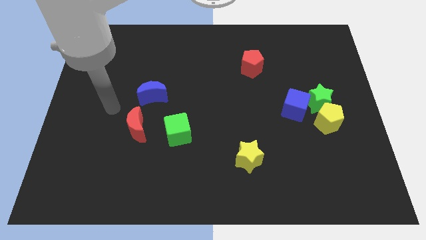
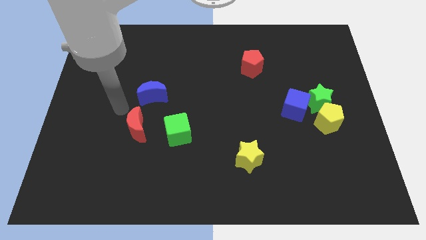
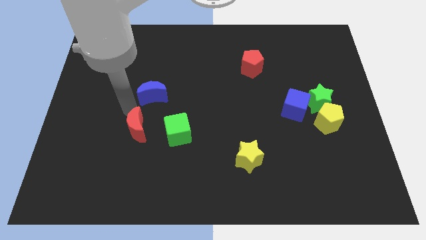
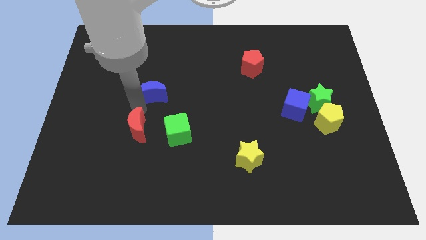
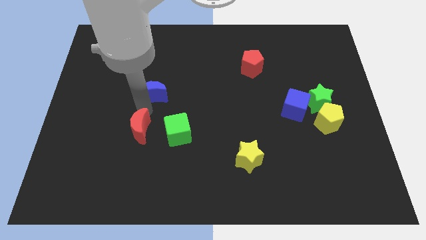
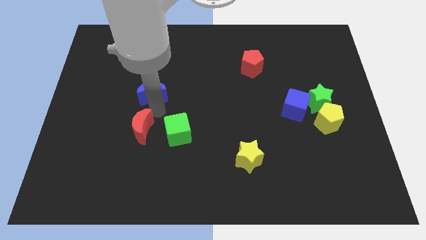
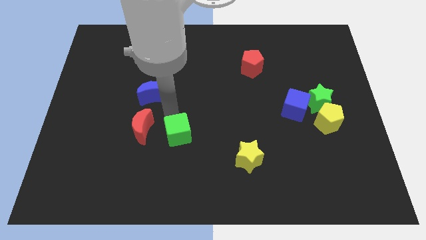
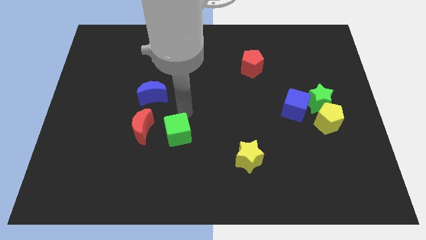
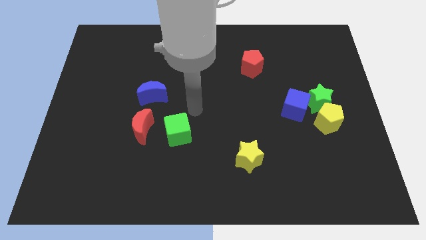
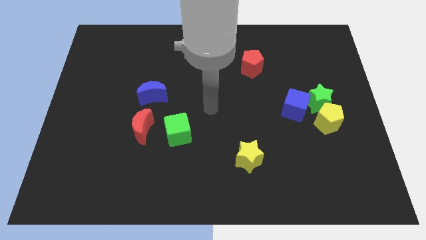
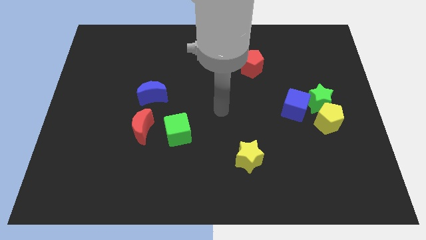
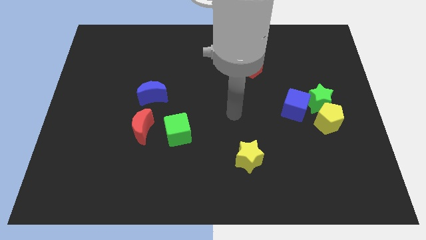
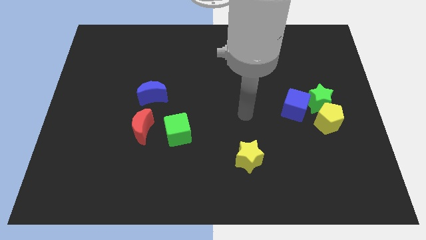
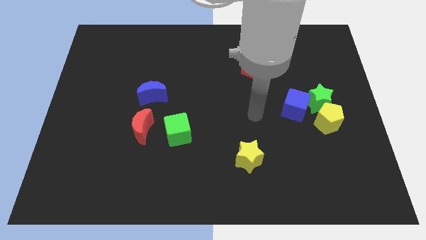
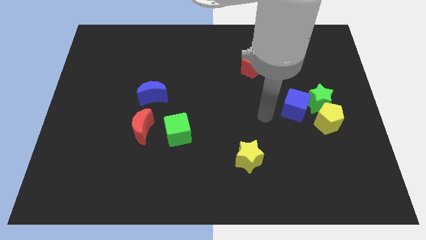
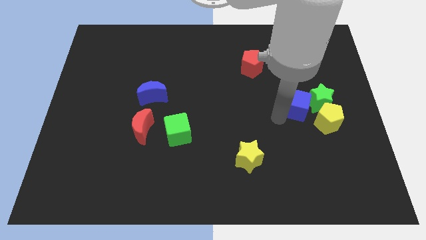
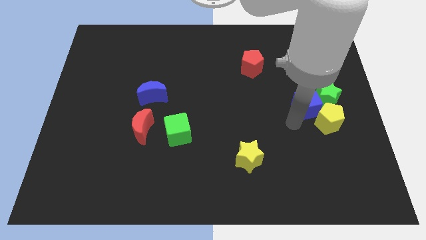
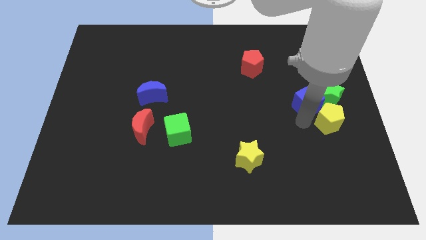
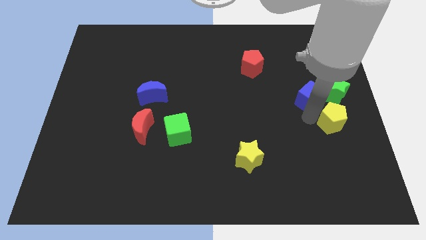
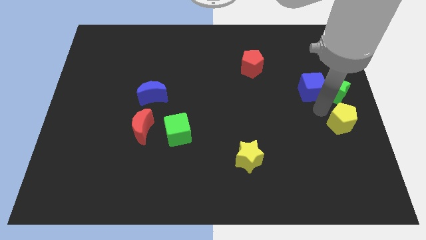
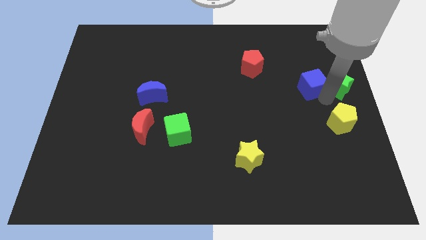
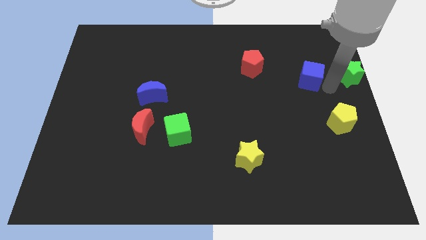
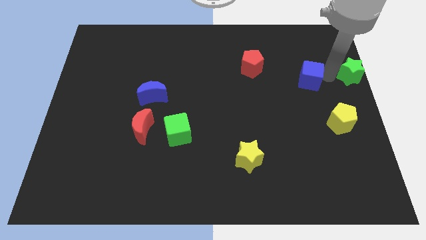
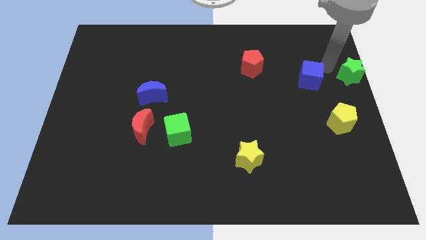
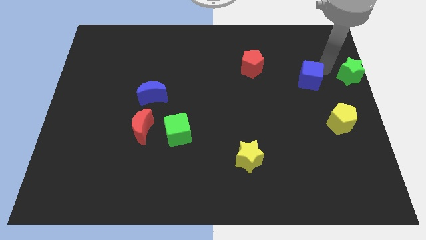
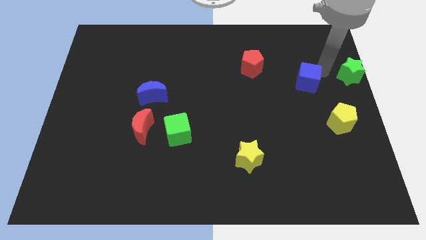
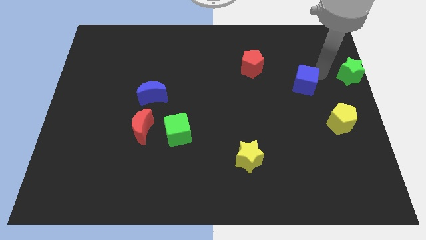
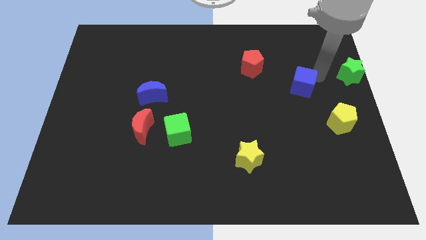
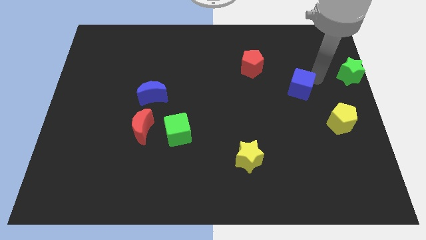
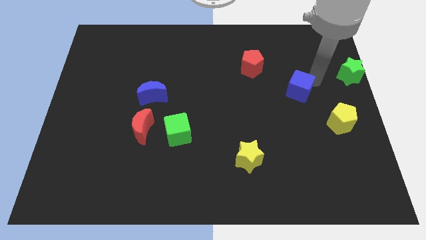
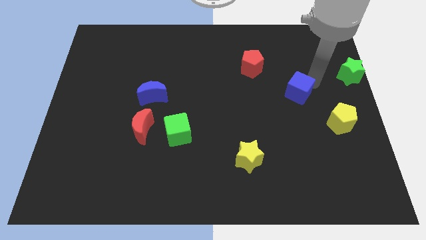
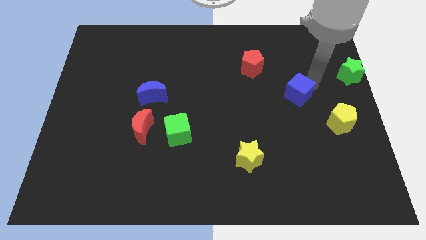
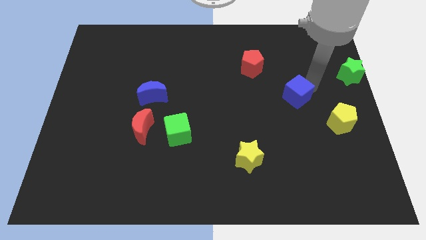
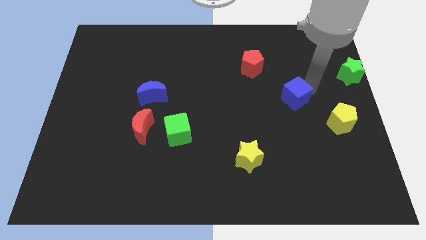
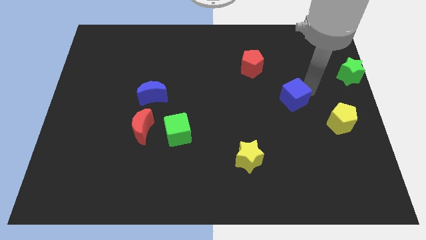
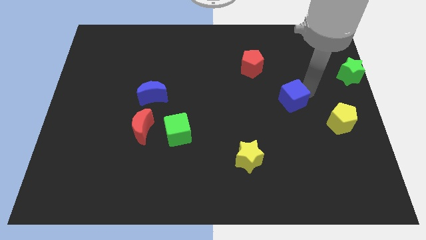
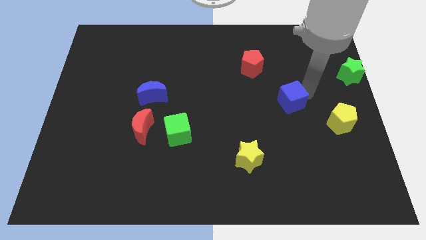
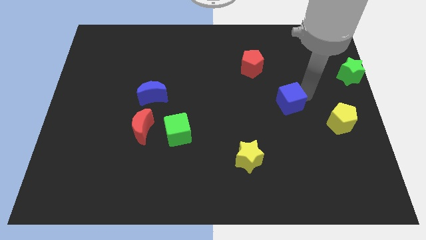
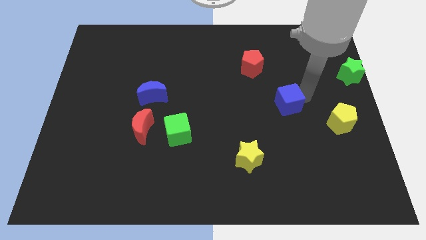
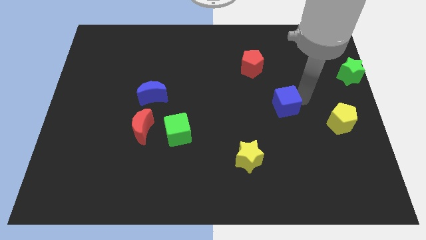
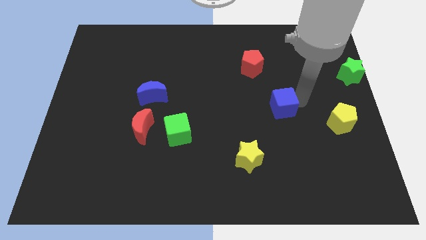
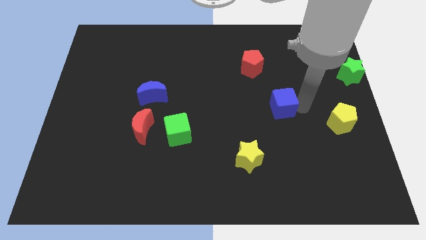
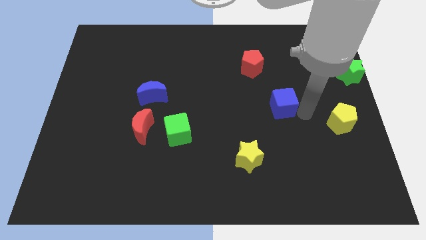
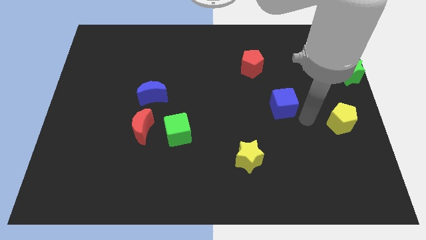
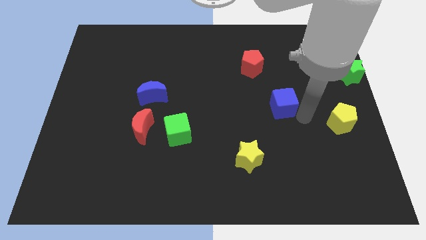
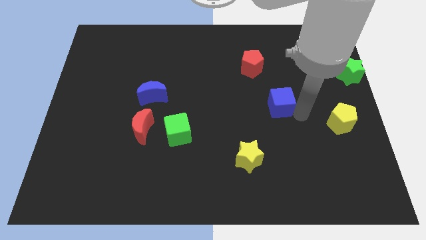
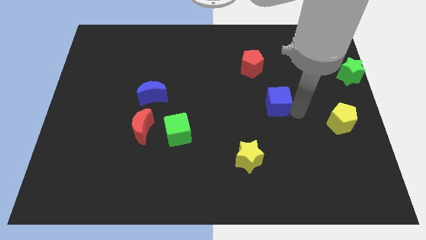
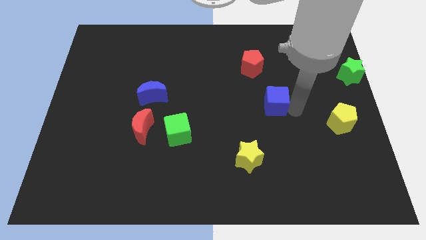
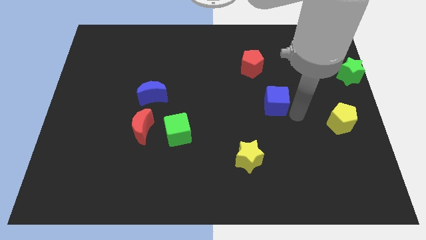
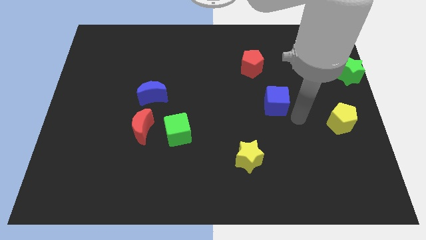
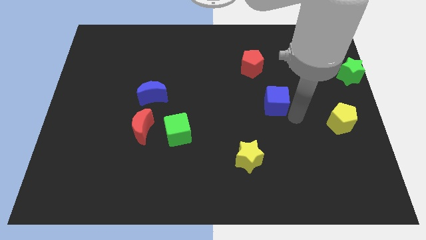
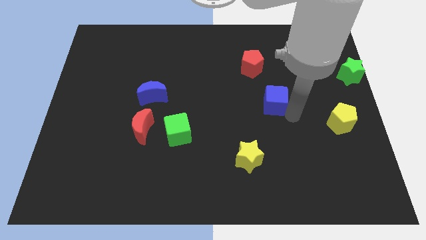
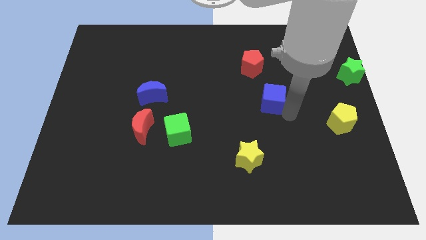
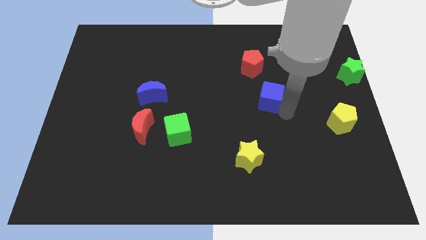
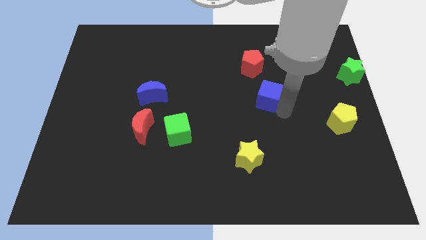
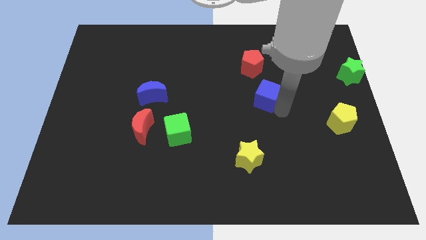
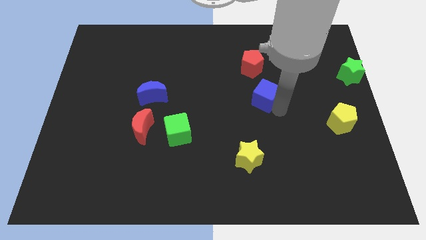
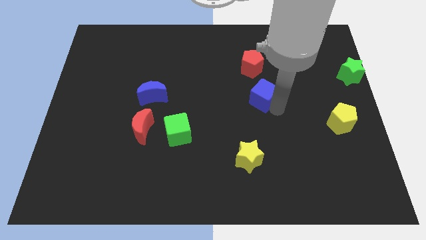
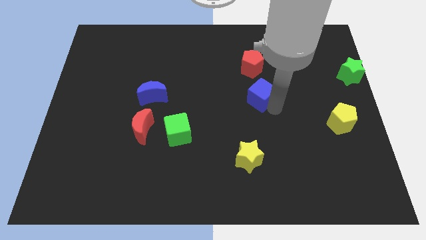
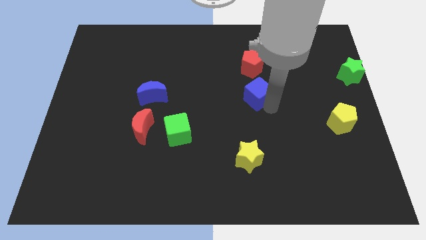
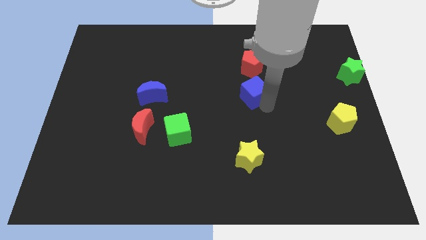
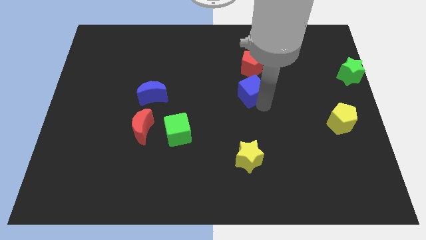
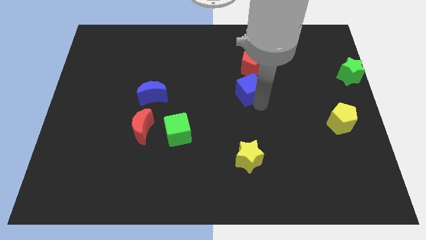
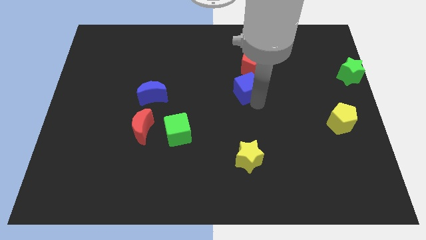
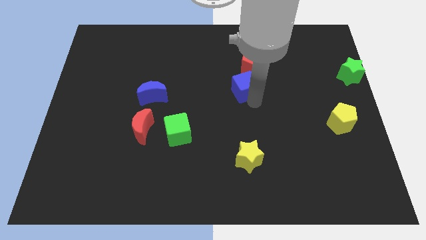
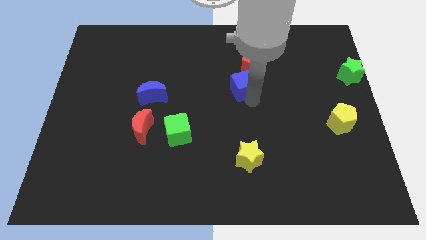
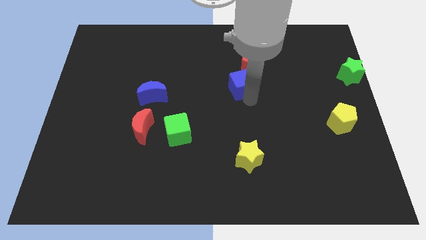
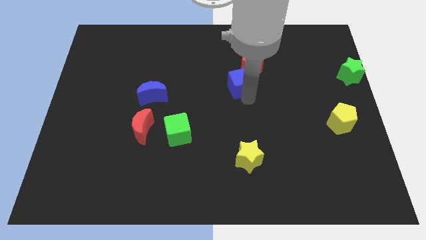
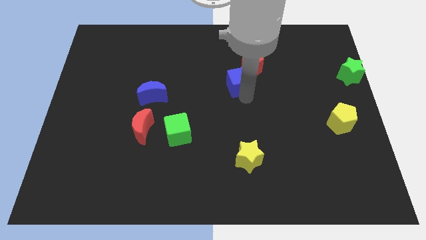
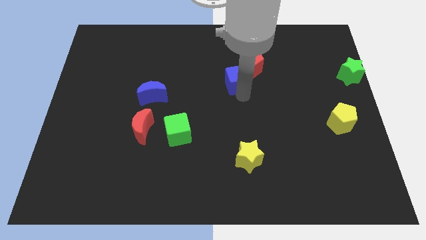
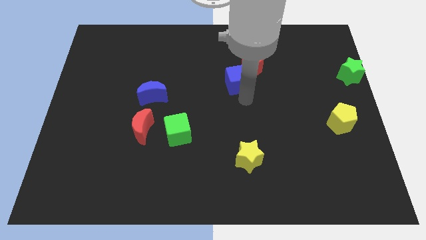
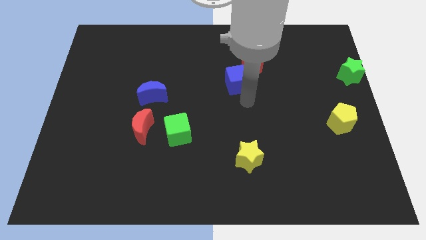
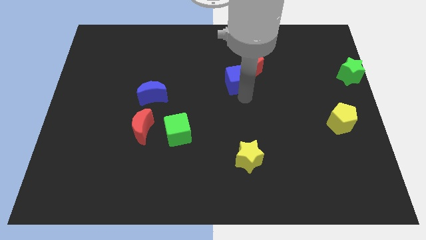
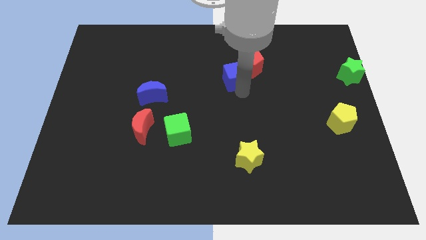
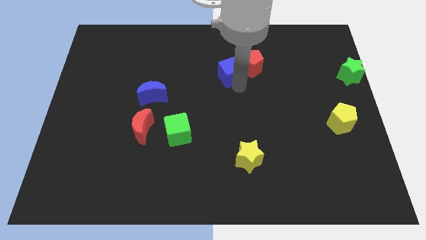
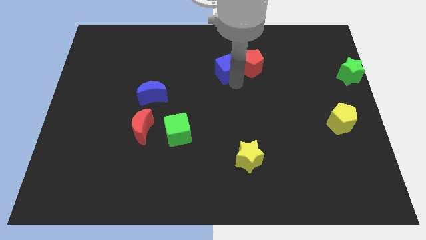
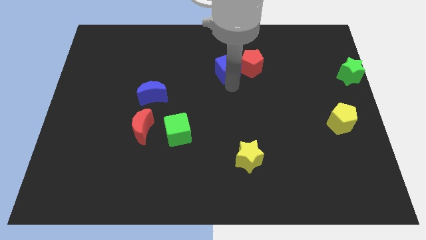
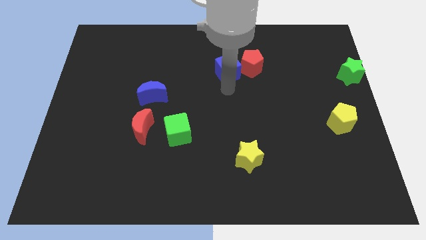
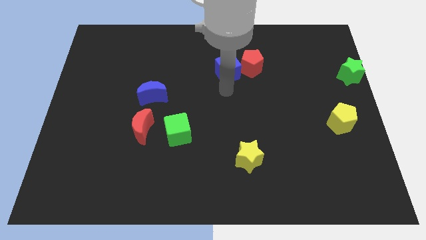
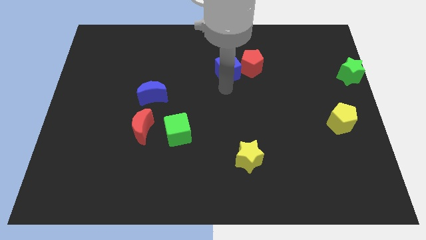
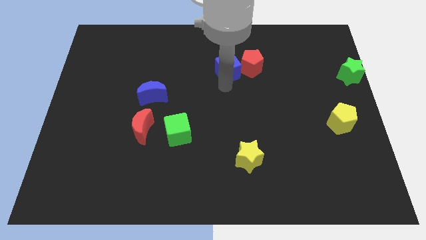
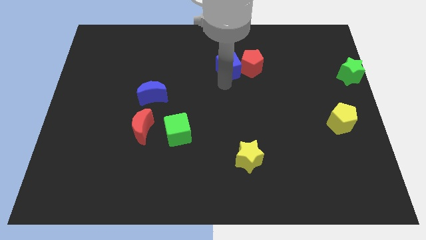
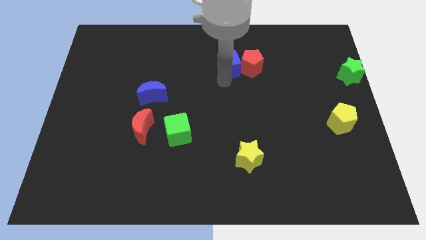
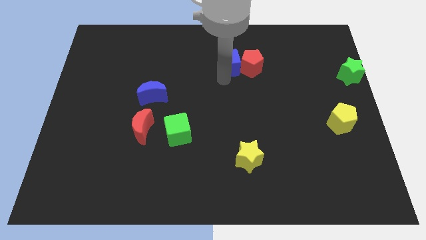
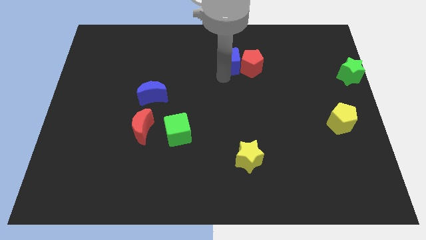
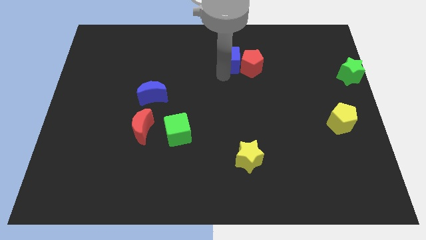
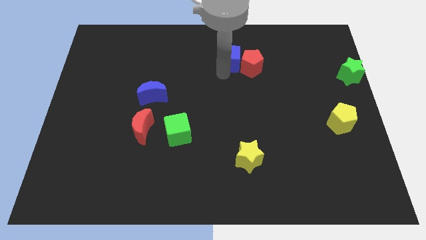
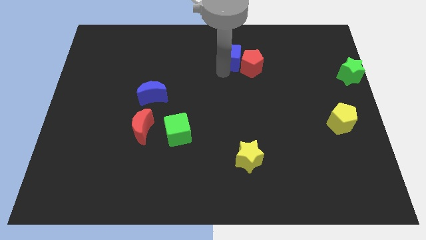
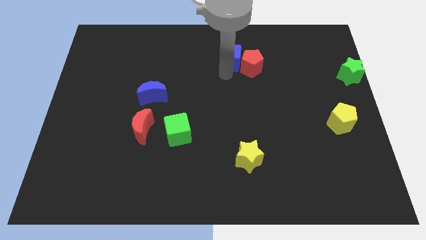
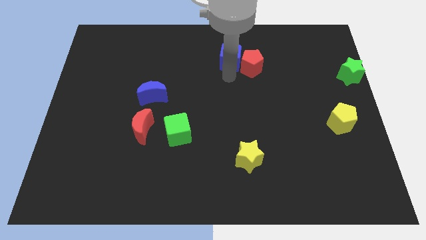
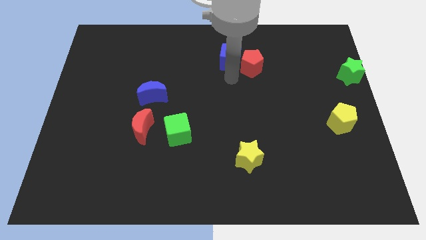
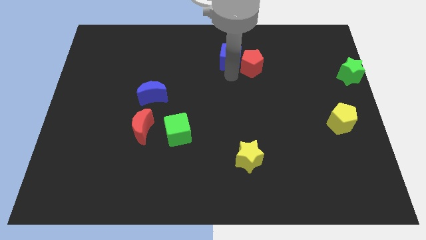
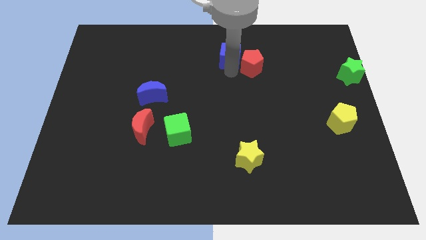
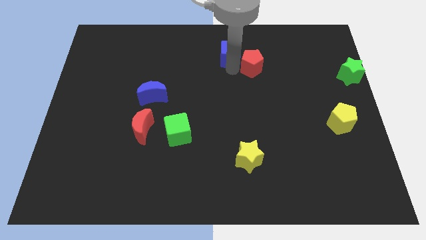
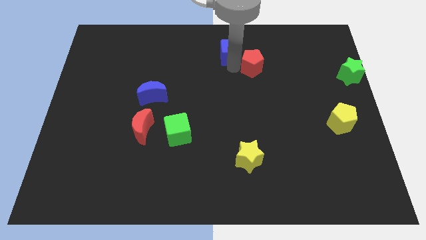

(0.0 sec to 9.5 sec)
put the blue cube to the towards your base
